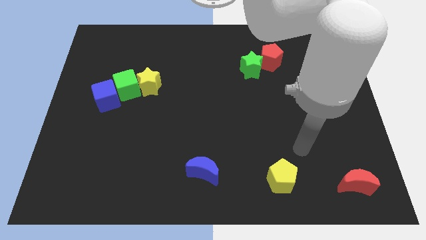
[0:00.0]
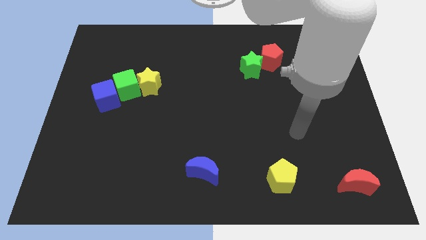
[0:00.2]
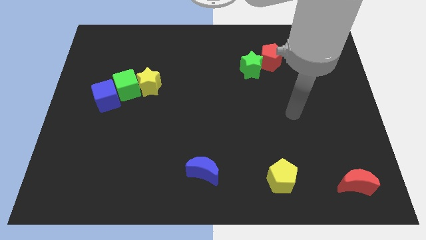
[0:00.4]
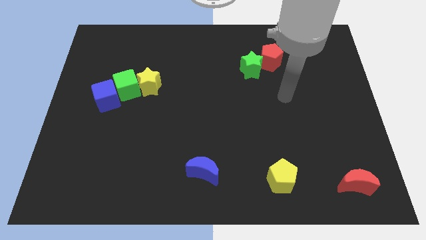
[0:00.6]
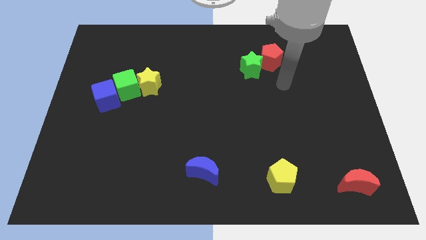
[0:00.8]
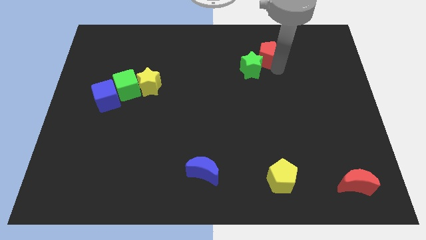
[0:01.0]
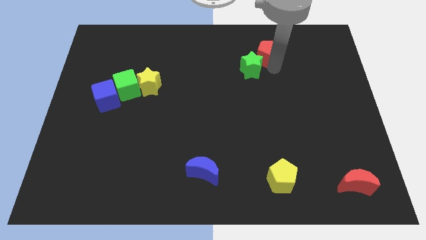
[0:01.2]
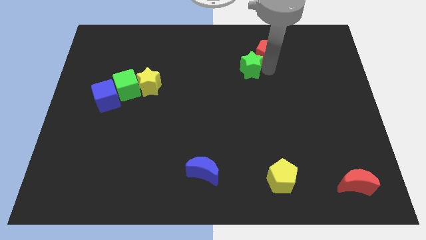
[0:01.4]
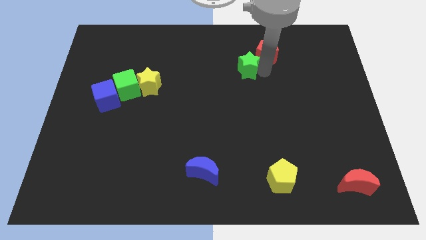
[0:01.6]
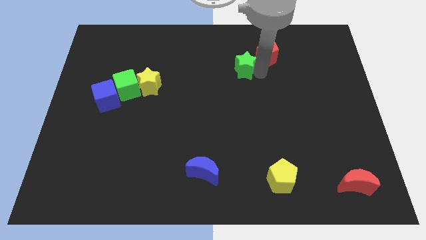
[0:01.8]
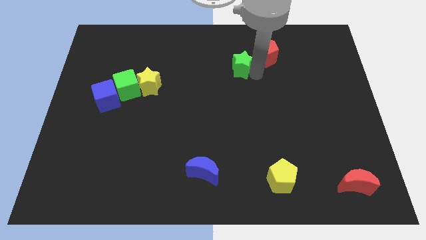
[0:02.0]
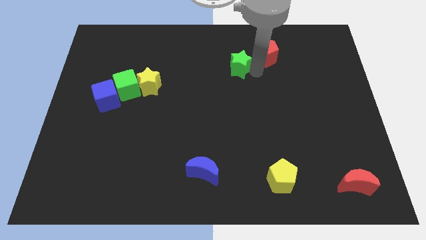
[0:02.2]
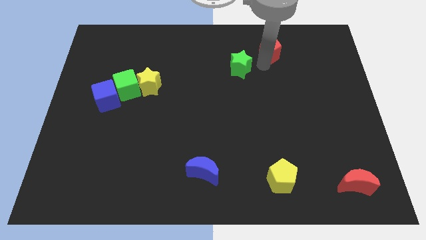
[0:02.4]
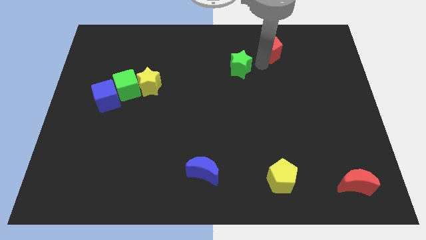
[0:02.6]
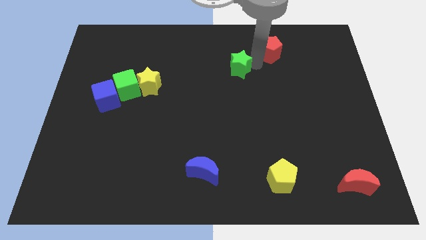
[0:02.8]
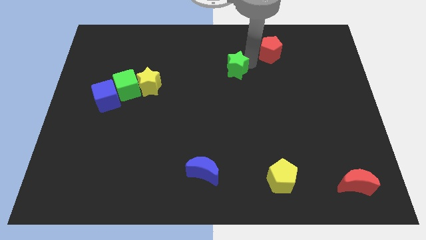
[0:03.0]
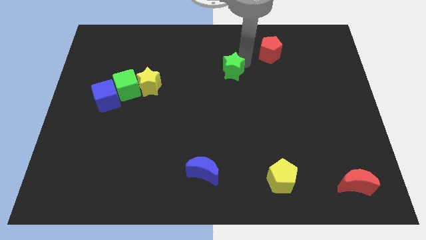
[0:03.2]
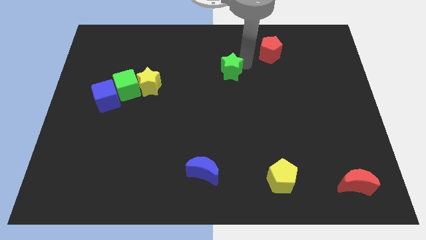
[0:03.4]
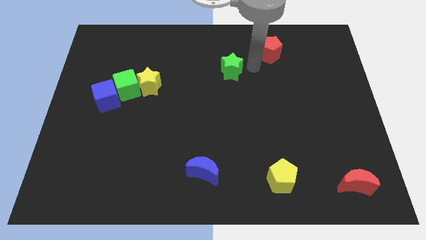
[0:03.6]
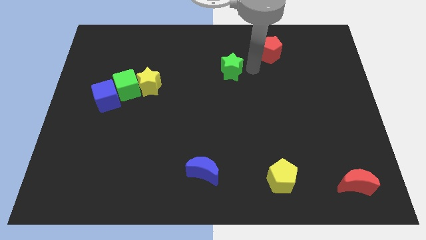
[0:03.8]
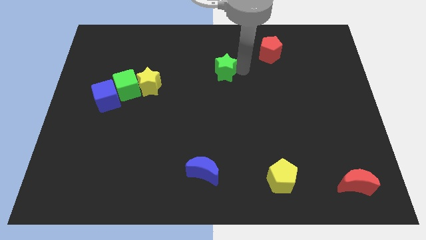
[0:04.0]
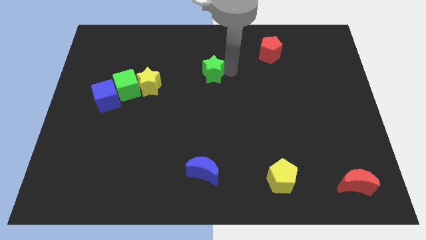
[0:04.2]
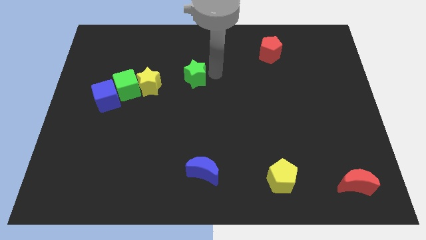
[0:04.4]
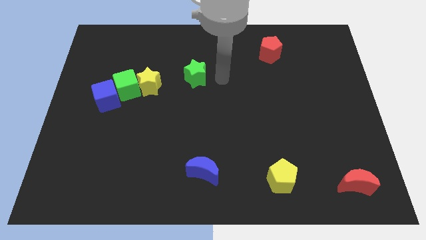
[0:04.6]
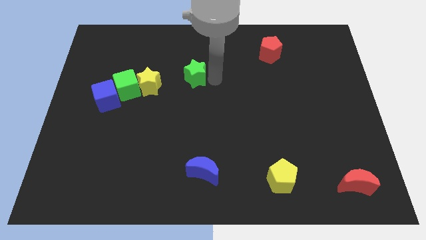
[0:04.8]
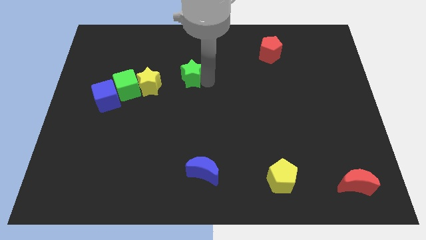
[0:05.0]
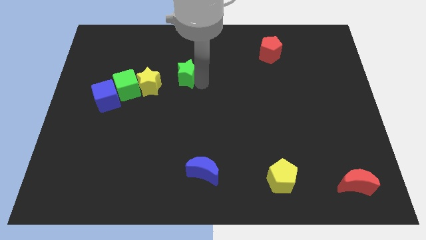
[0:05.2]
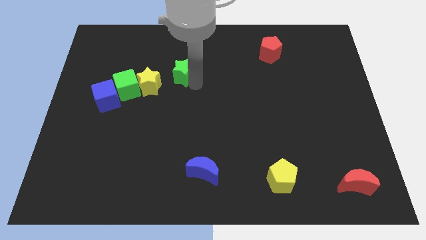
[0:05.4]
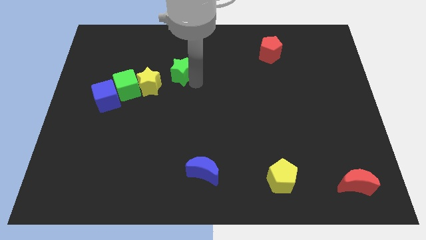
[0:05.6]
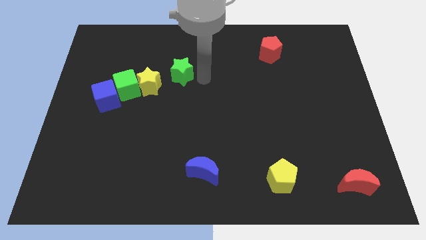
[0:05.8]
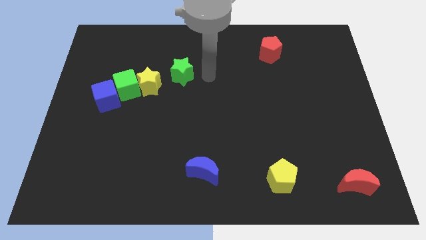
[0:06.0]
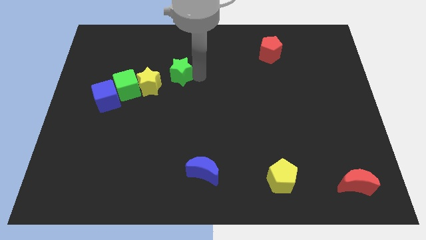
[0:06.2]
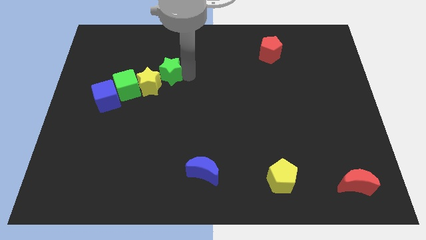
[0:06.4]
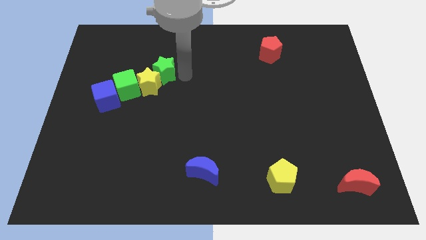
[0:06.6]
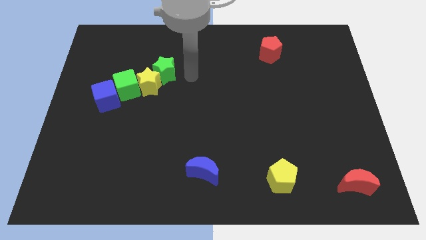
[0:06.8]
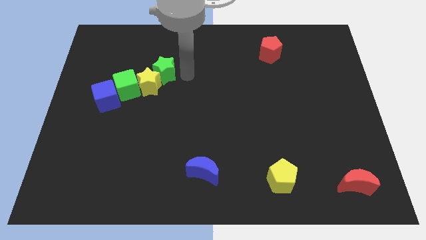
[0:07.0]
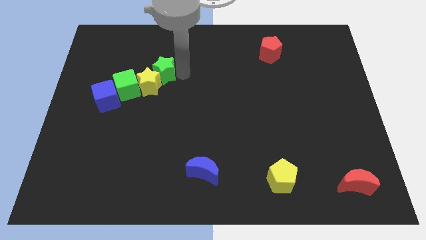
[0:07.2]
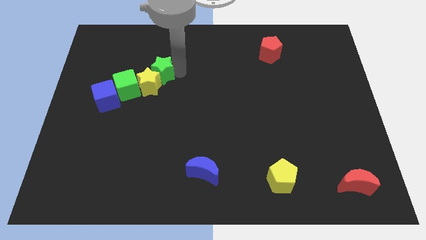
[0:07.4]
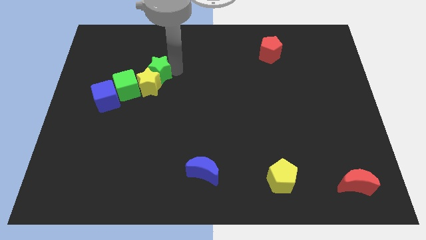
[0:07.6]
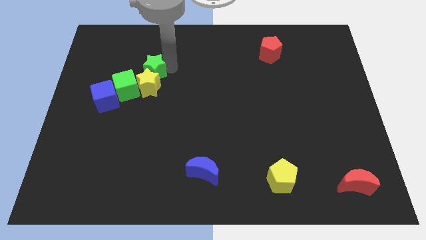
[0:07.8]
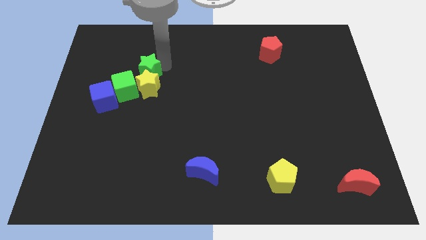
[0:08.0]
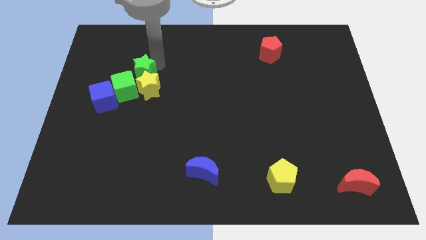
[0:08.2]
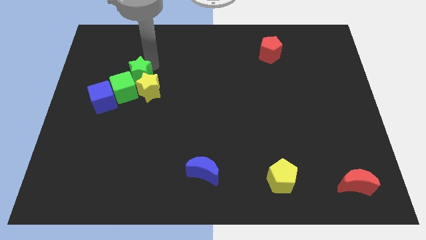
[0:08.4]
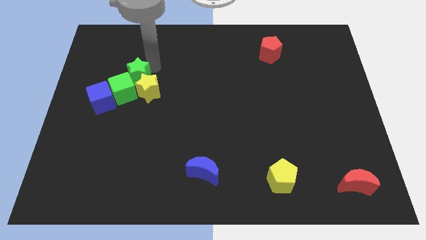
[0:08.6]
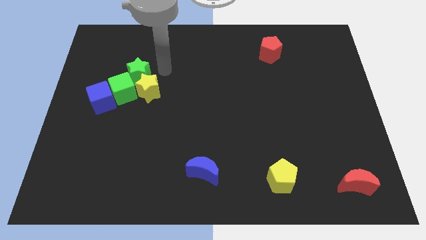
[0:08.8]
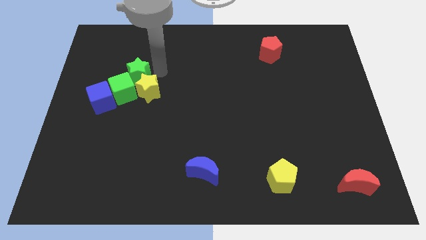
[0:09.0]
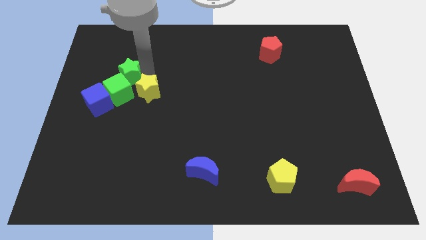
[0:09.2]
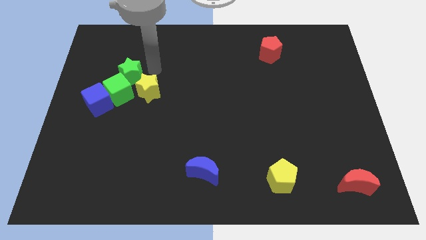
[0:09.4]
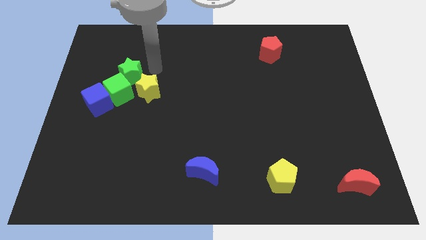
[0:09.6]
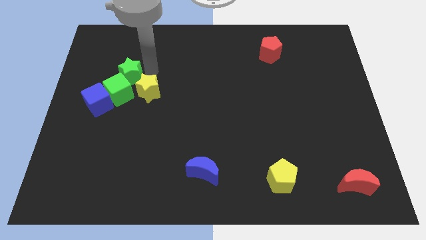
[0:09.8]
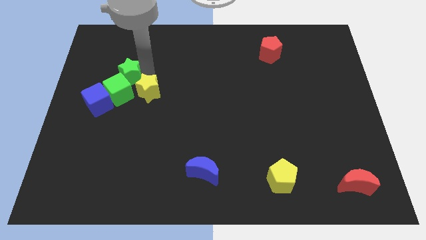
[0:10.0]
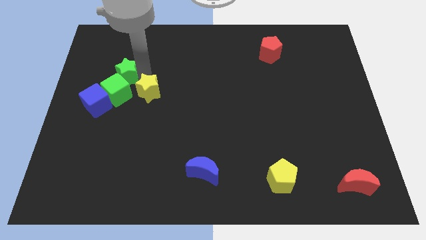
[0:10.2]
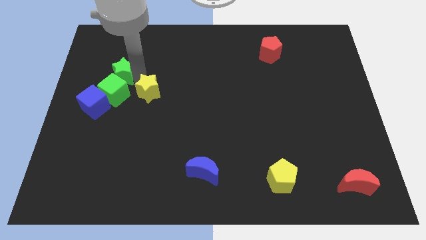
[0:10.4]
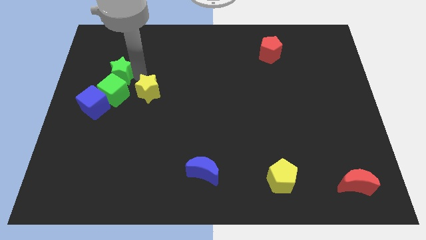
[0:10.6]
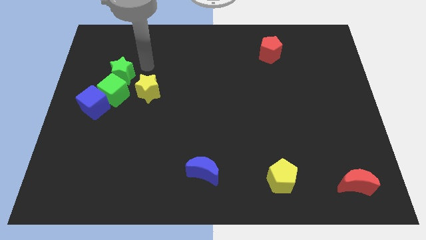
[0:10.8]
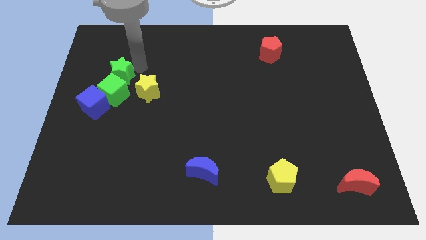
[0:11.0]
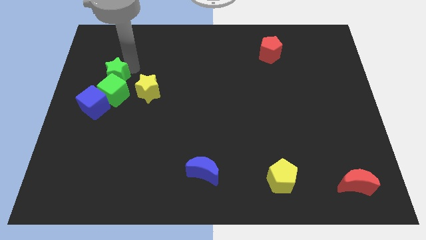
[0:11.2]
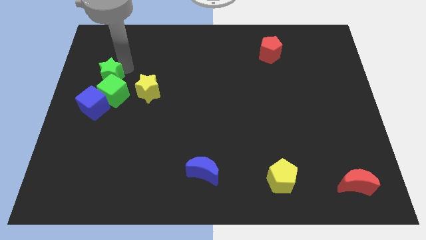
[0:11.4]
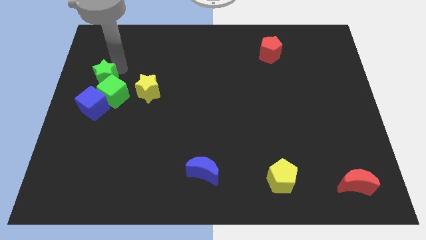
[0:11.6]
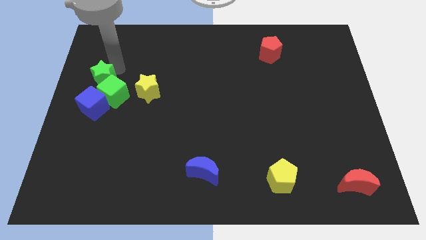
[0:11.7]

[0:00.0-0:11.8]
slide the green star to the left side

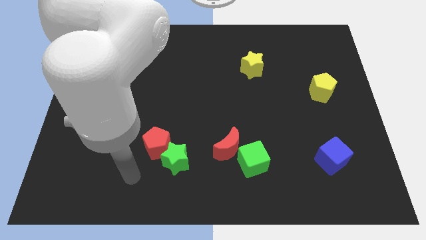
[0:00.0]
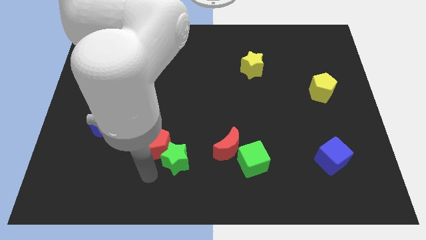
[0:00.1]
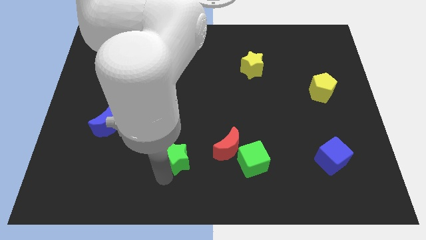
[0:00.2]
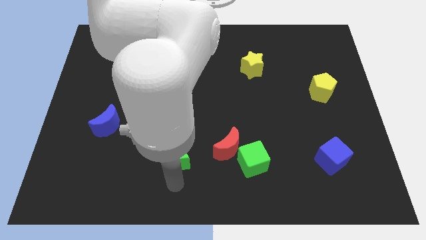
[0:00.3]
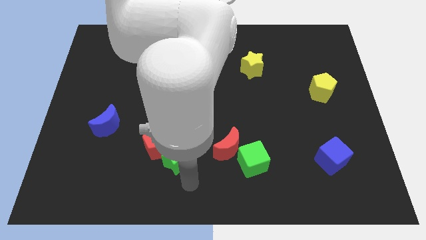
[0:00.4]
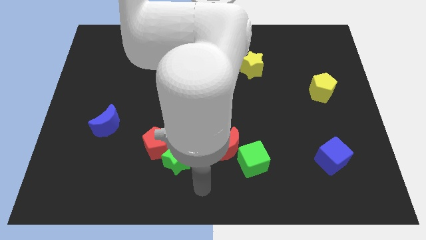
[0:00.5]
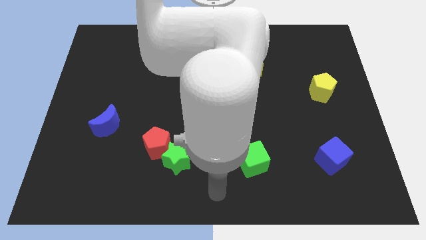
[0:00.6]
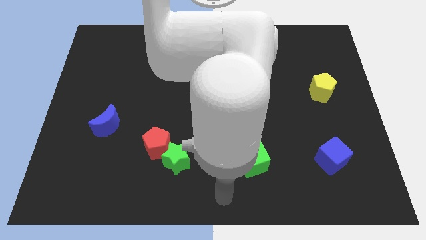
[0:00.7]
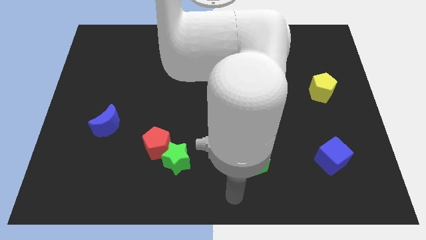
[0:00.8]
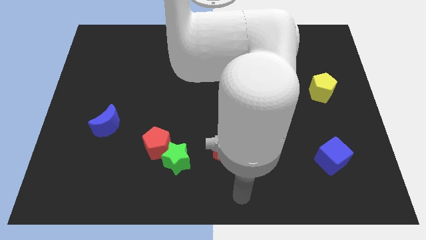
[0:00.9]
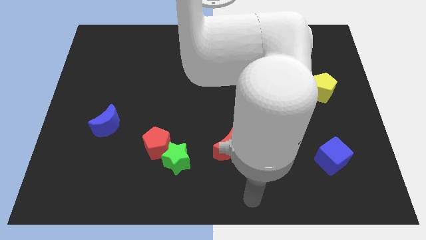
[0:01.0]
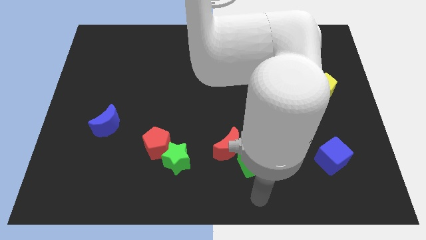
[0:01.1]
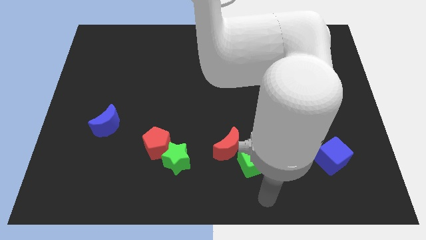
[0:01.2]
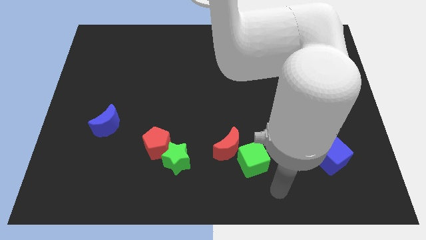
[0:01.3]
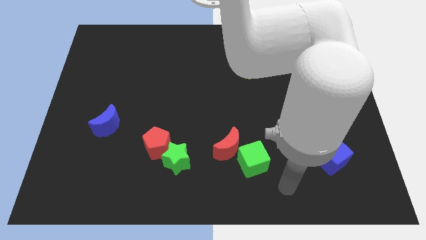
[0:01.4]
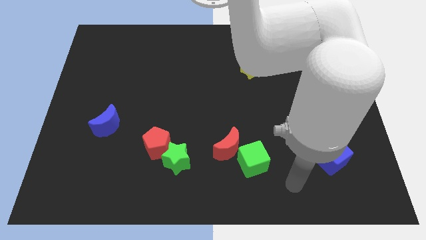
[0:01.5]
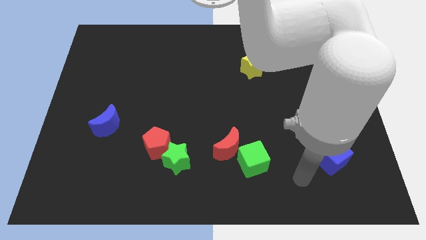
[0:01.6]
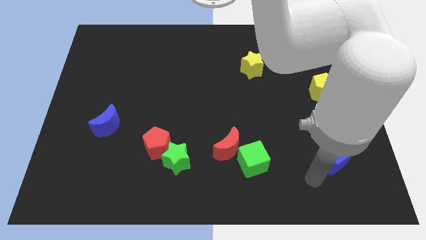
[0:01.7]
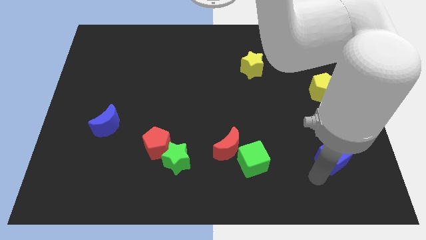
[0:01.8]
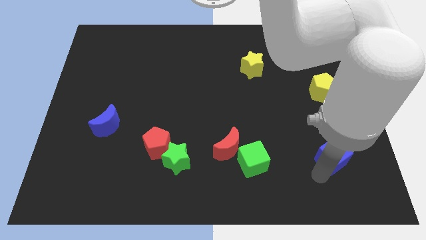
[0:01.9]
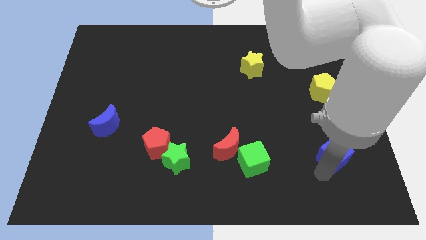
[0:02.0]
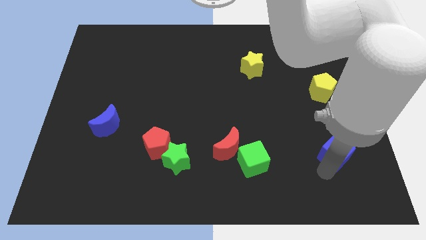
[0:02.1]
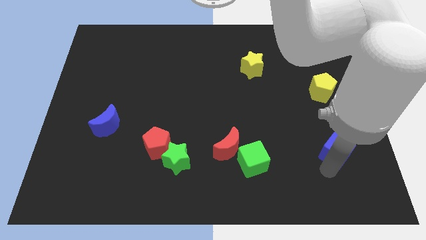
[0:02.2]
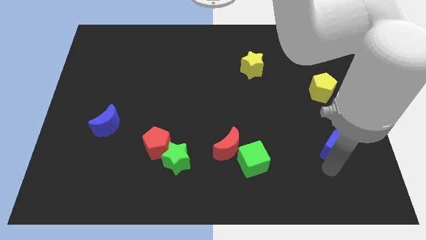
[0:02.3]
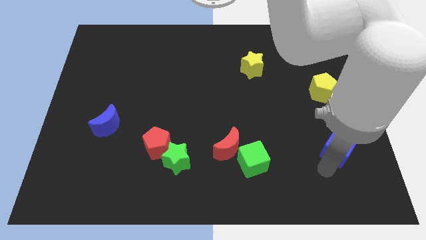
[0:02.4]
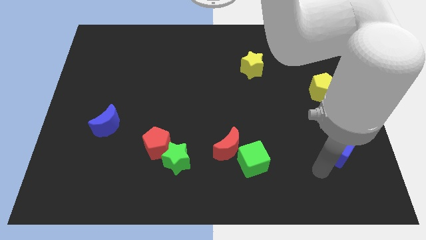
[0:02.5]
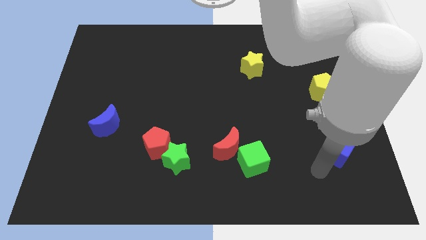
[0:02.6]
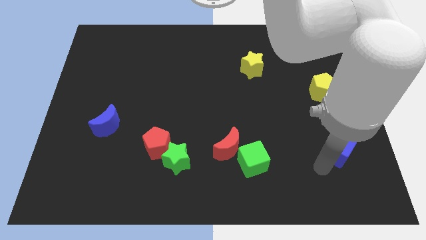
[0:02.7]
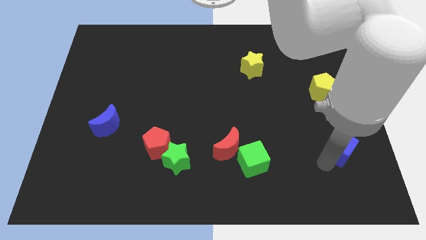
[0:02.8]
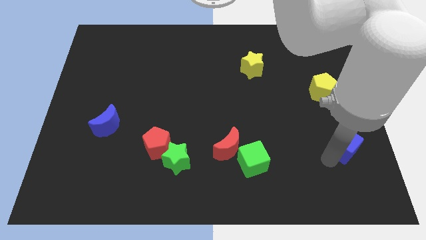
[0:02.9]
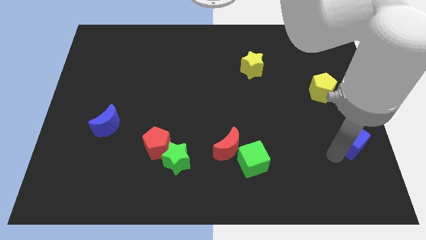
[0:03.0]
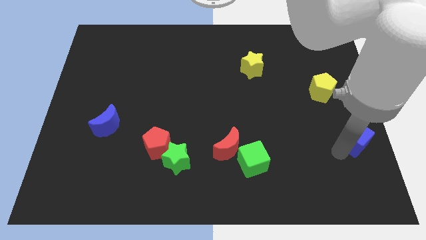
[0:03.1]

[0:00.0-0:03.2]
slide the blue cube to the right side of the board
